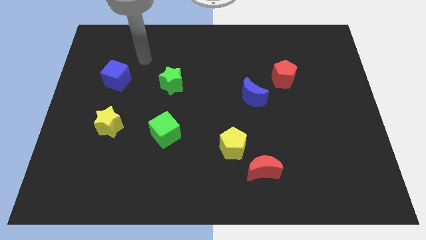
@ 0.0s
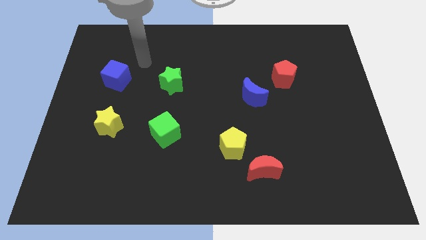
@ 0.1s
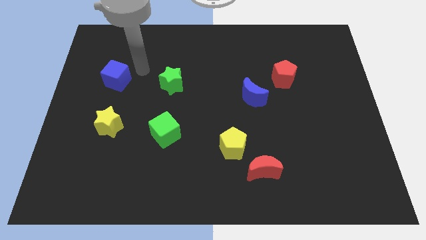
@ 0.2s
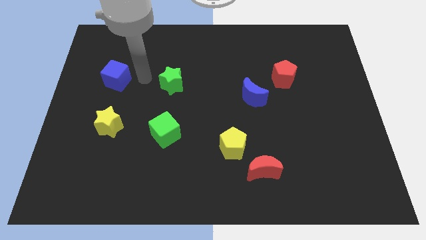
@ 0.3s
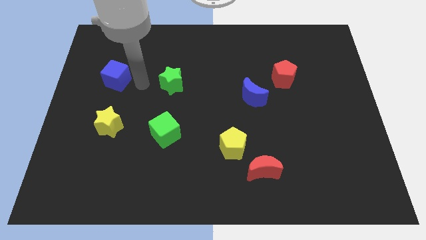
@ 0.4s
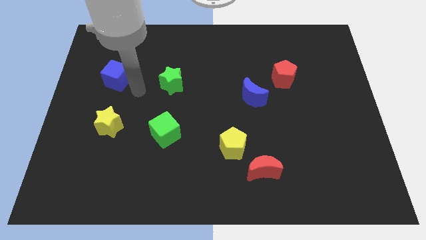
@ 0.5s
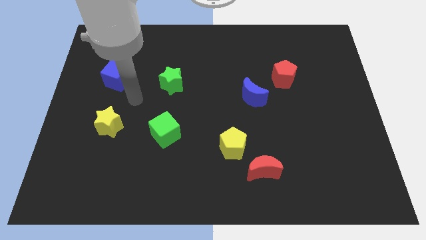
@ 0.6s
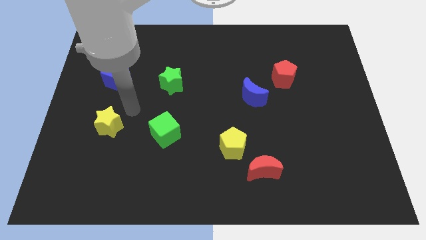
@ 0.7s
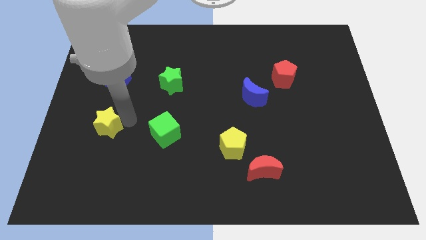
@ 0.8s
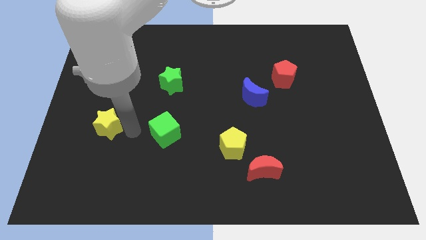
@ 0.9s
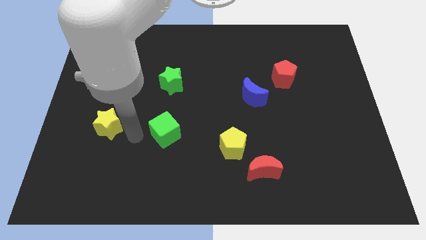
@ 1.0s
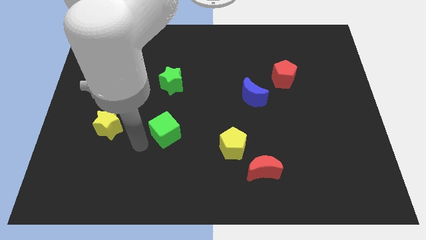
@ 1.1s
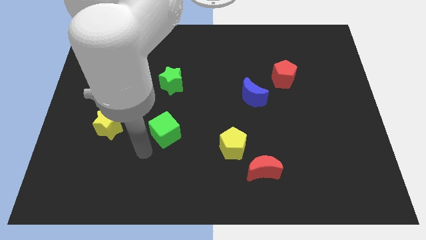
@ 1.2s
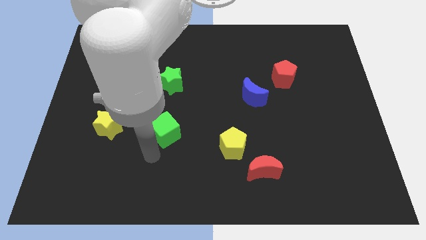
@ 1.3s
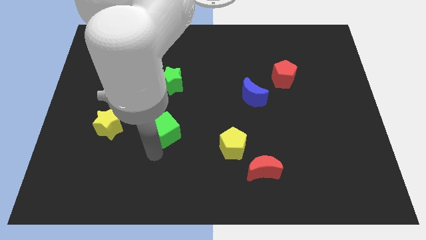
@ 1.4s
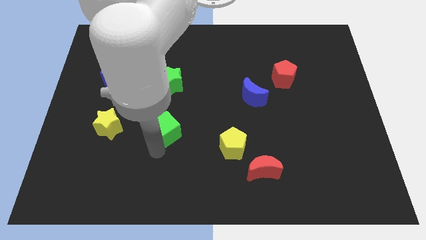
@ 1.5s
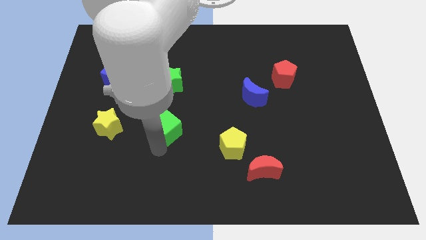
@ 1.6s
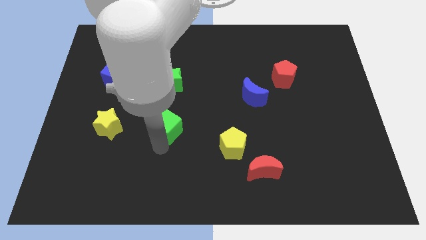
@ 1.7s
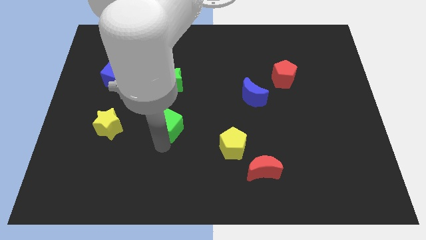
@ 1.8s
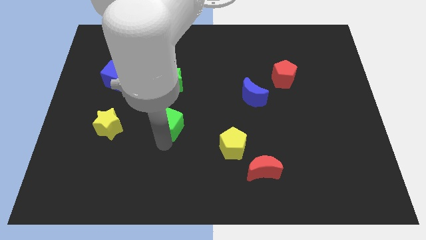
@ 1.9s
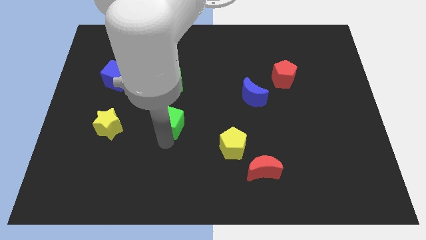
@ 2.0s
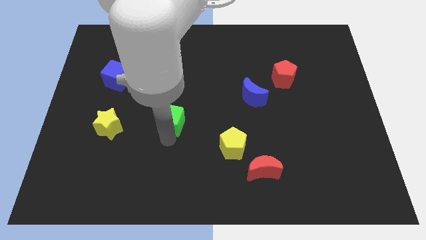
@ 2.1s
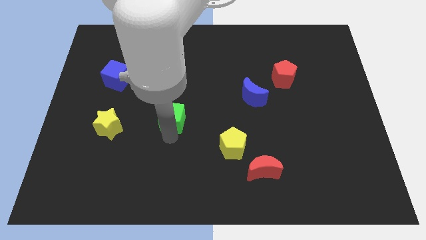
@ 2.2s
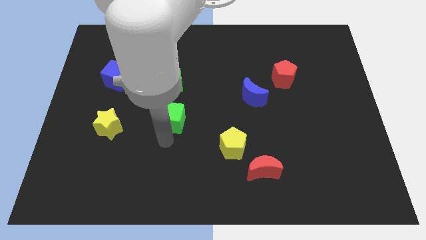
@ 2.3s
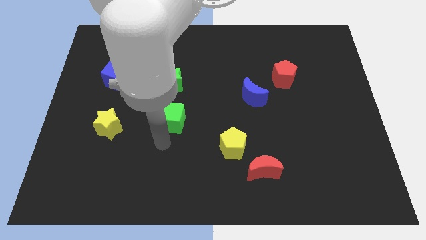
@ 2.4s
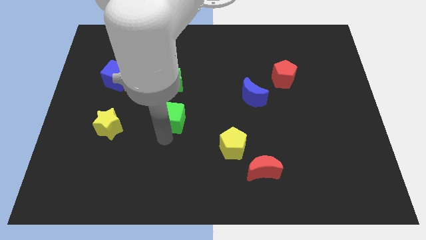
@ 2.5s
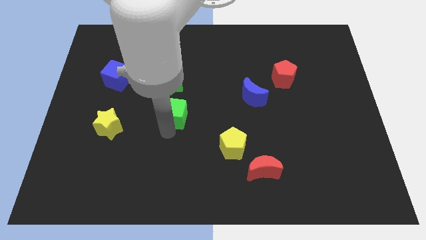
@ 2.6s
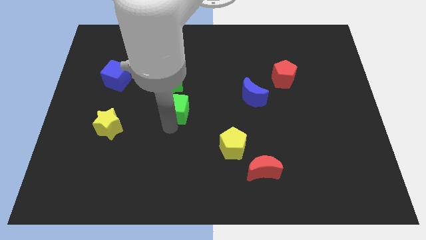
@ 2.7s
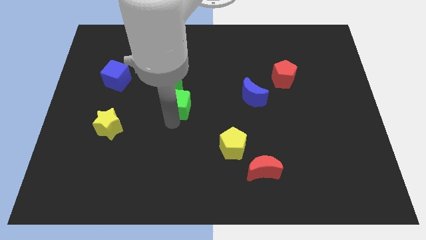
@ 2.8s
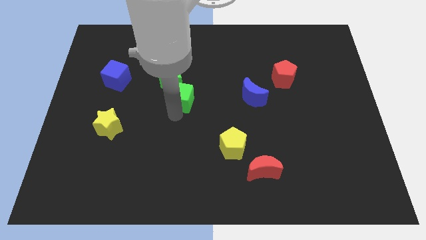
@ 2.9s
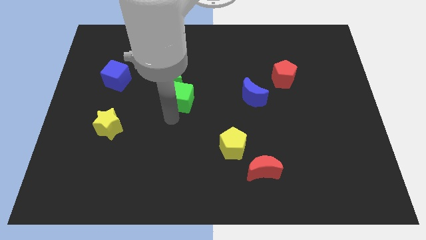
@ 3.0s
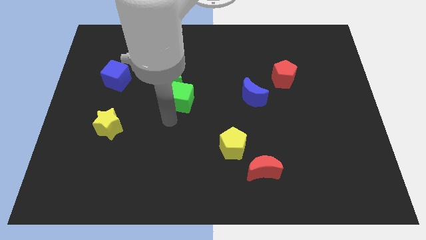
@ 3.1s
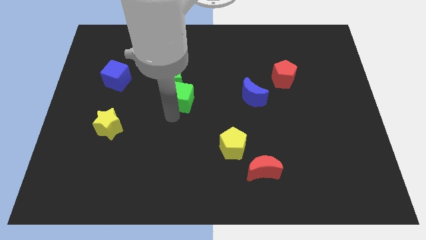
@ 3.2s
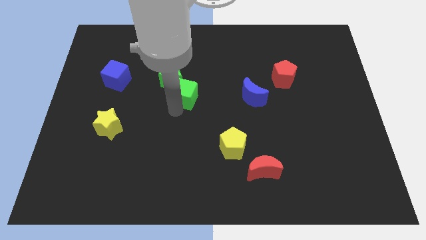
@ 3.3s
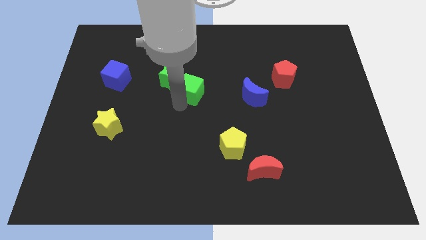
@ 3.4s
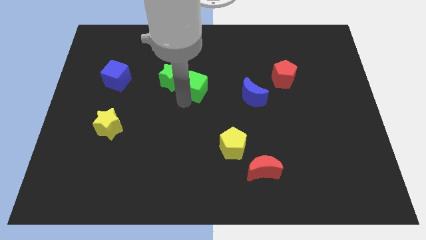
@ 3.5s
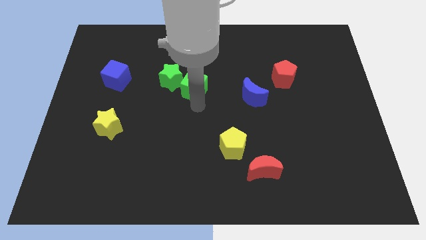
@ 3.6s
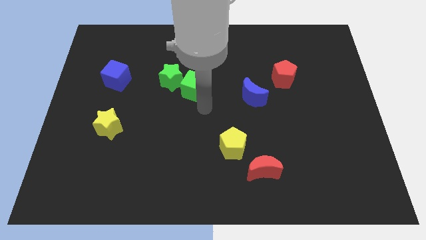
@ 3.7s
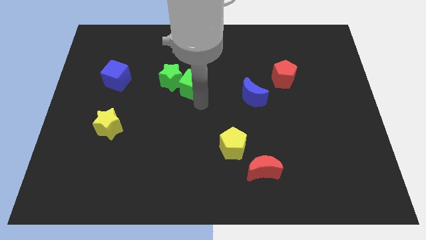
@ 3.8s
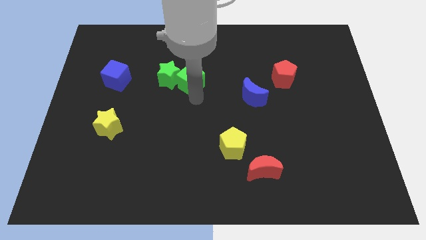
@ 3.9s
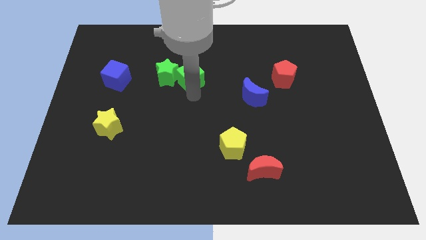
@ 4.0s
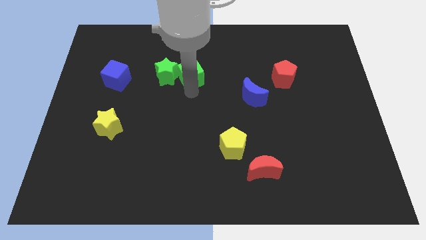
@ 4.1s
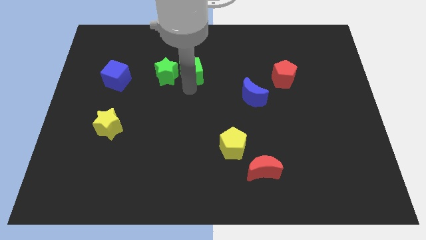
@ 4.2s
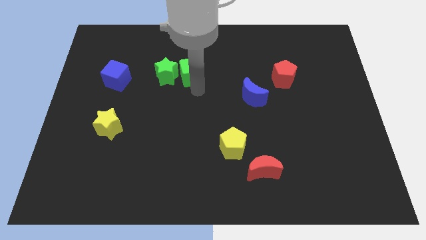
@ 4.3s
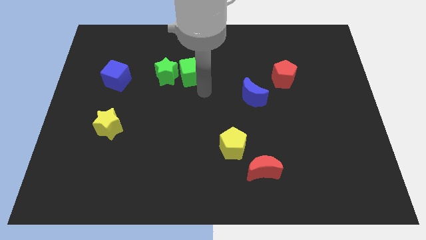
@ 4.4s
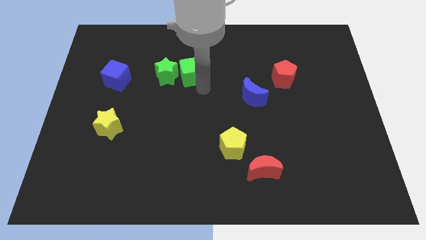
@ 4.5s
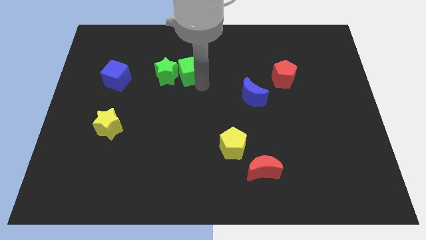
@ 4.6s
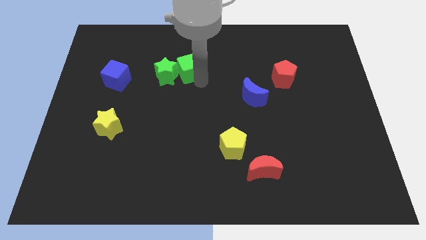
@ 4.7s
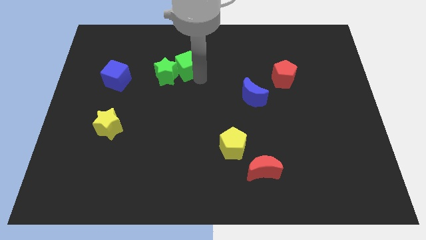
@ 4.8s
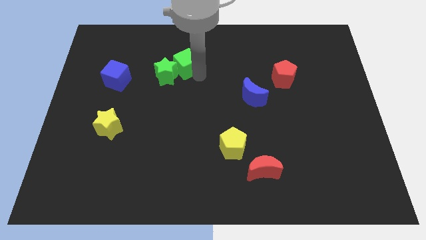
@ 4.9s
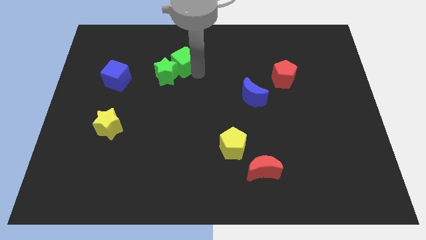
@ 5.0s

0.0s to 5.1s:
push the green cube to the top of the green star

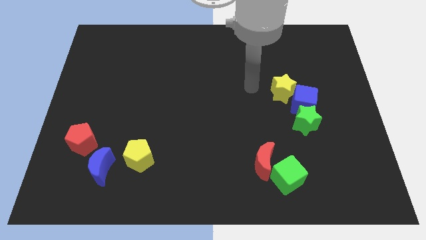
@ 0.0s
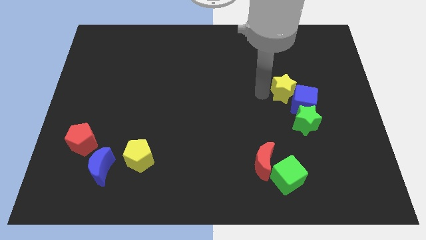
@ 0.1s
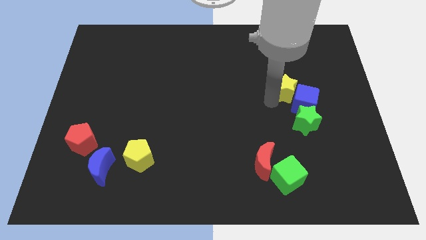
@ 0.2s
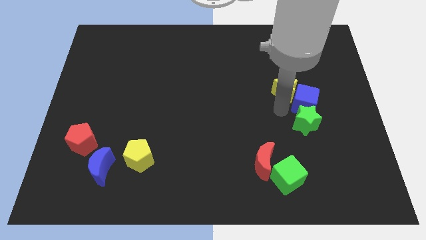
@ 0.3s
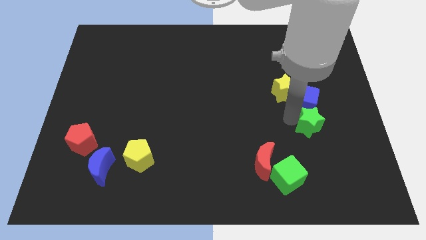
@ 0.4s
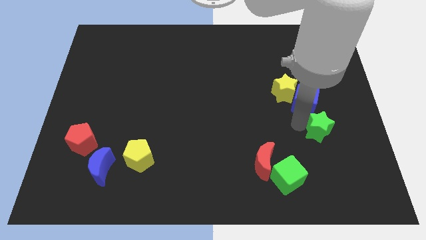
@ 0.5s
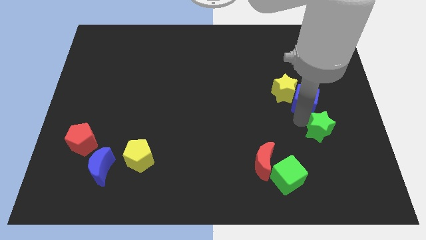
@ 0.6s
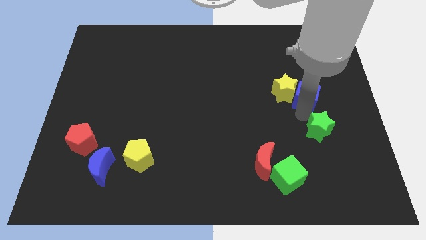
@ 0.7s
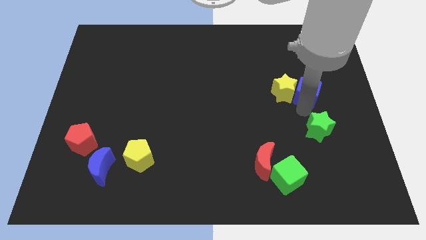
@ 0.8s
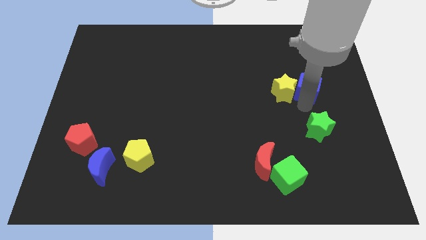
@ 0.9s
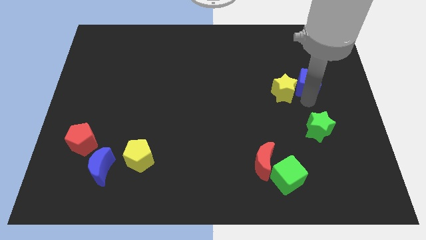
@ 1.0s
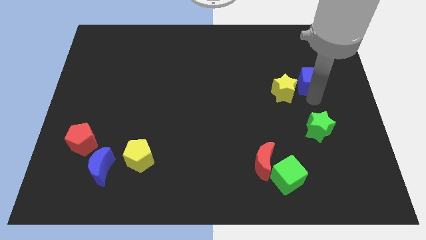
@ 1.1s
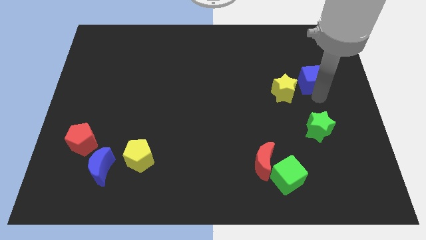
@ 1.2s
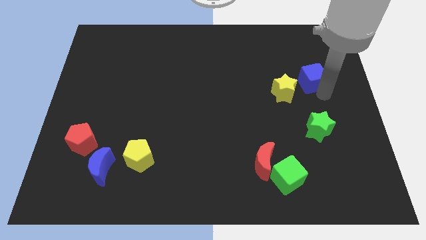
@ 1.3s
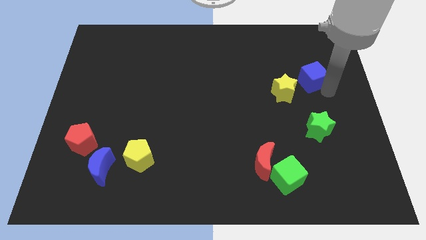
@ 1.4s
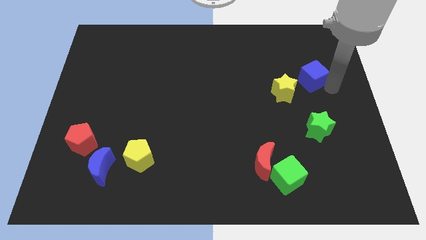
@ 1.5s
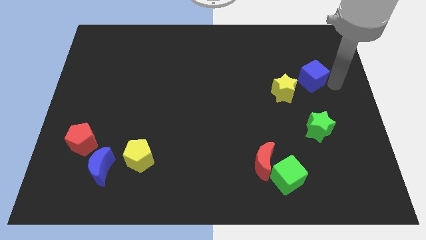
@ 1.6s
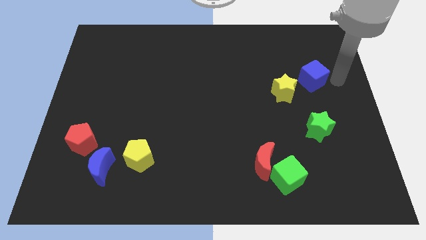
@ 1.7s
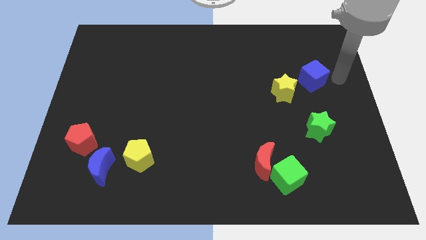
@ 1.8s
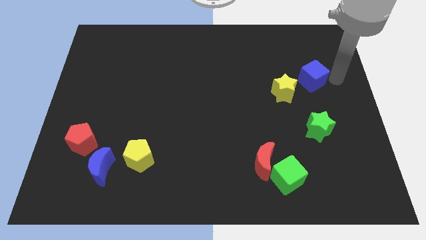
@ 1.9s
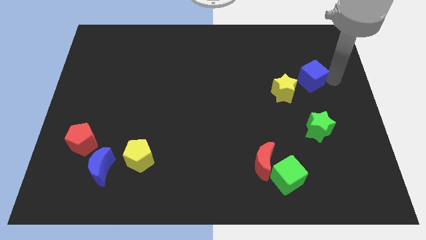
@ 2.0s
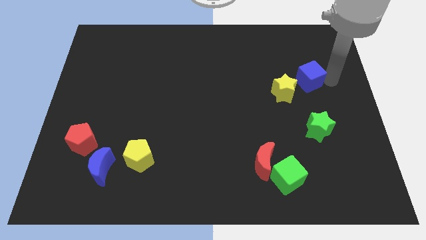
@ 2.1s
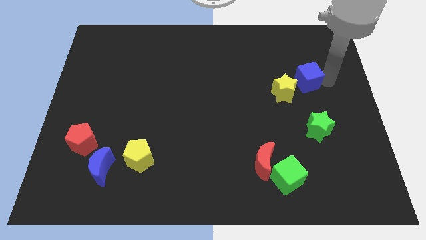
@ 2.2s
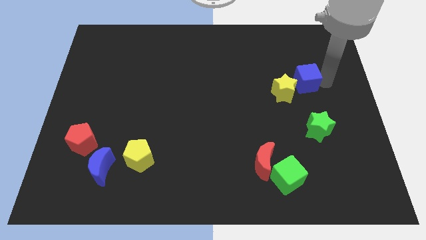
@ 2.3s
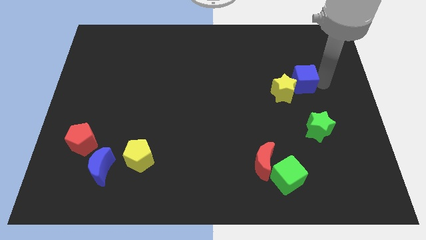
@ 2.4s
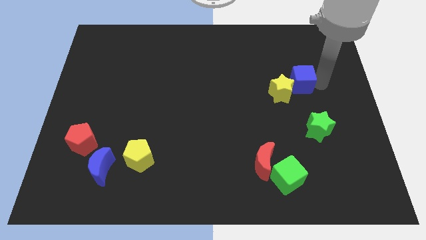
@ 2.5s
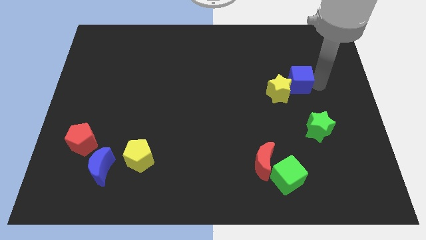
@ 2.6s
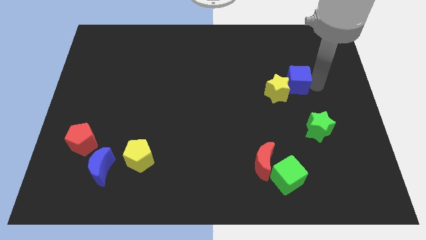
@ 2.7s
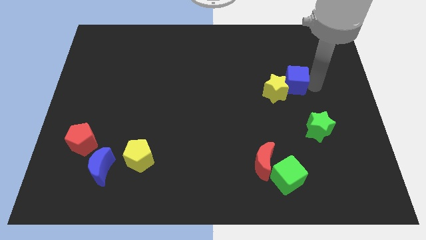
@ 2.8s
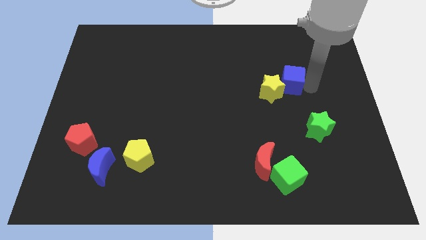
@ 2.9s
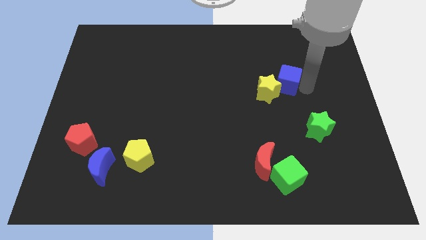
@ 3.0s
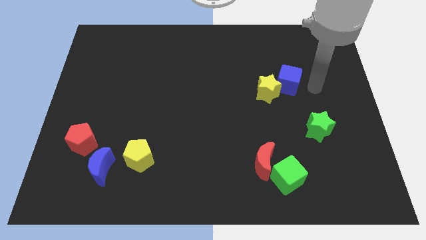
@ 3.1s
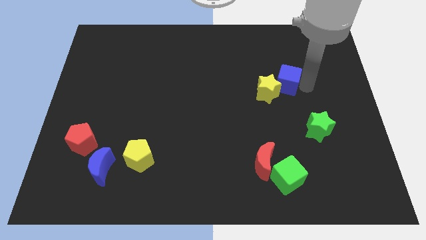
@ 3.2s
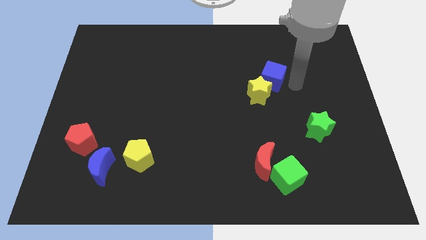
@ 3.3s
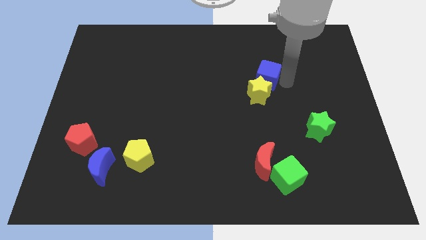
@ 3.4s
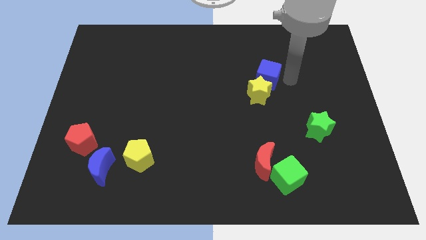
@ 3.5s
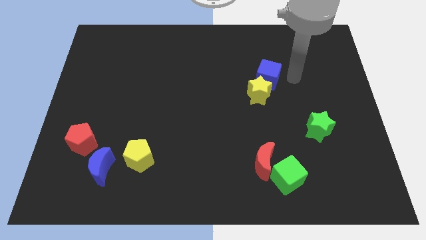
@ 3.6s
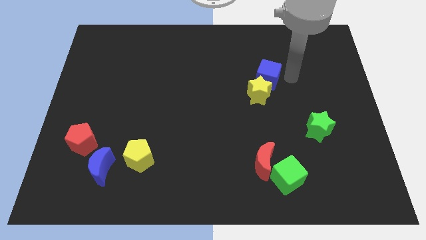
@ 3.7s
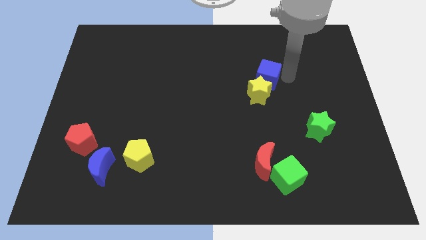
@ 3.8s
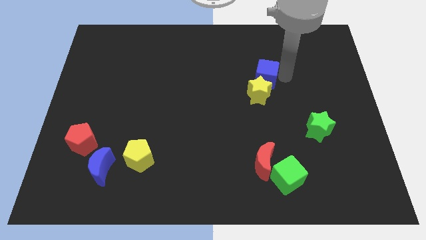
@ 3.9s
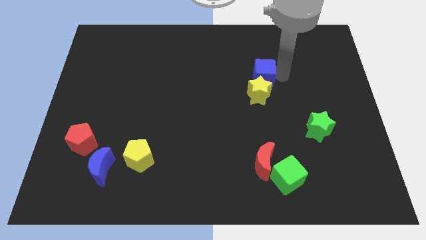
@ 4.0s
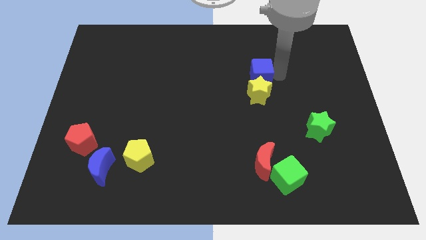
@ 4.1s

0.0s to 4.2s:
put the blue cube to the top left of the yellow star
